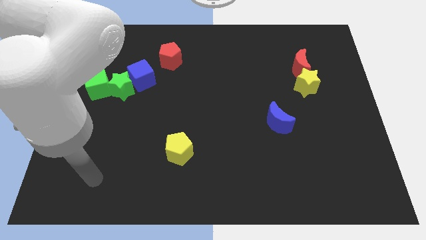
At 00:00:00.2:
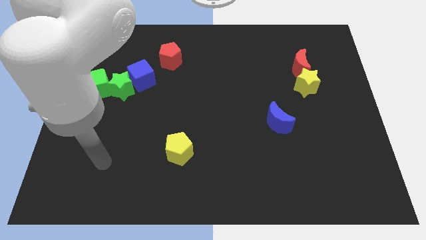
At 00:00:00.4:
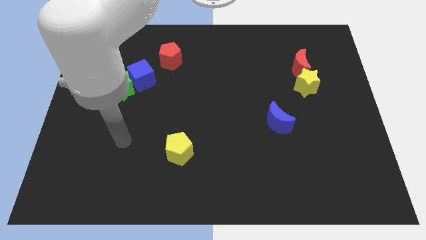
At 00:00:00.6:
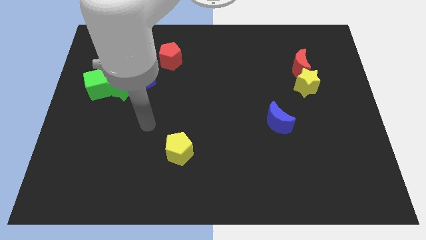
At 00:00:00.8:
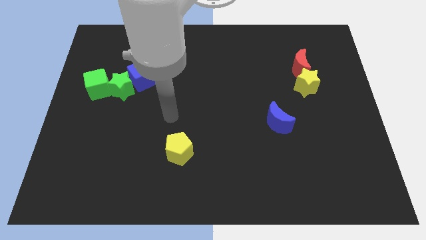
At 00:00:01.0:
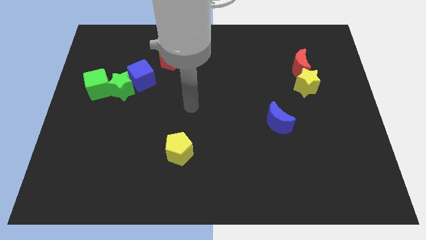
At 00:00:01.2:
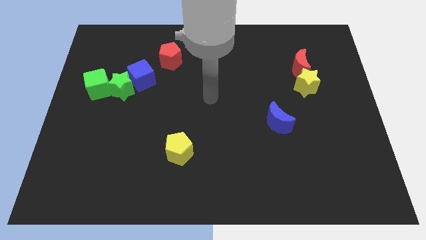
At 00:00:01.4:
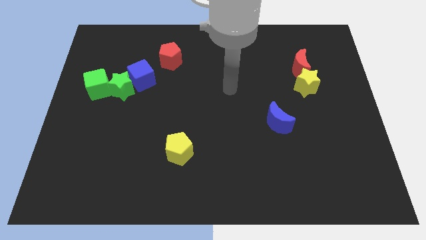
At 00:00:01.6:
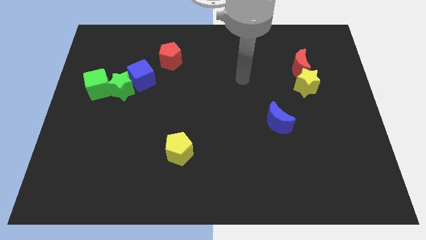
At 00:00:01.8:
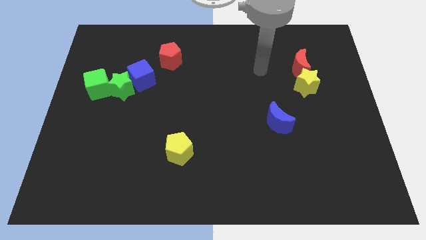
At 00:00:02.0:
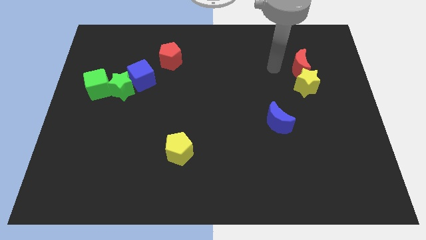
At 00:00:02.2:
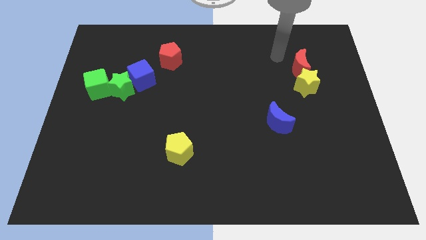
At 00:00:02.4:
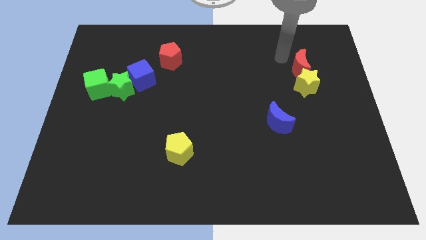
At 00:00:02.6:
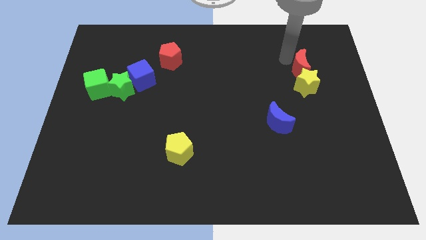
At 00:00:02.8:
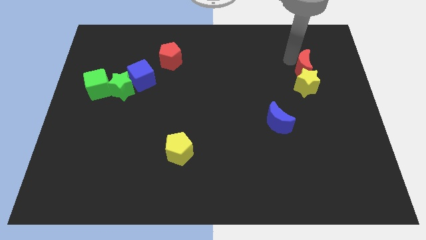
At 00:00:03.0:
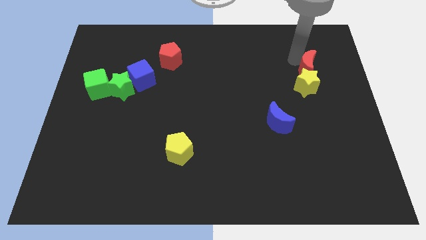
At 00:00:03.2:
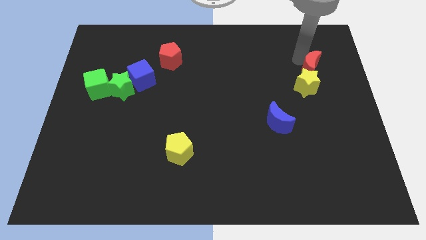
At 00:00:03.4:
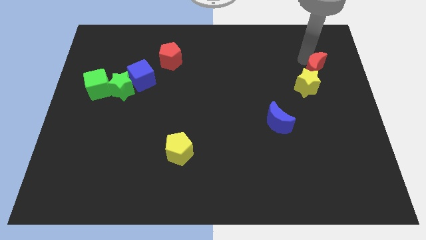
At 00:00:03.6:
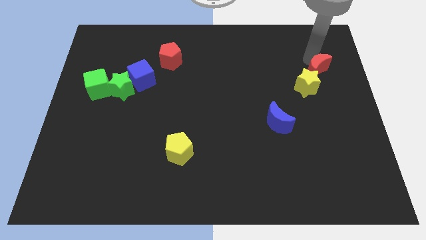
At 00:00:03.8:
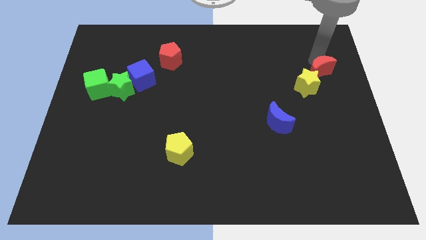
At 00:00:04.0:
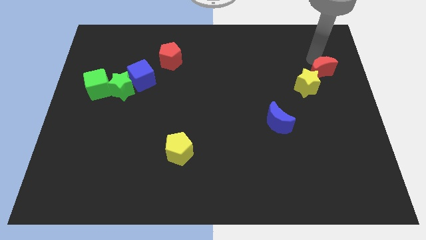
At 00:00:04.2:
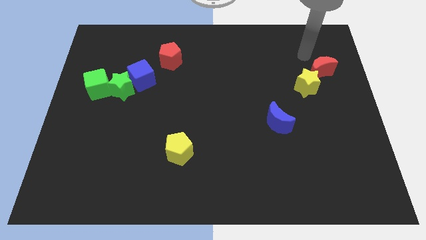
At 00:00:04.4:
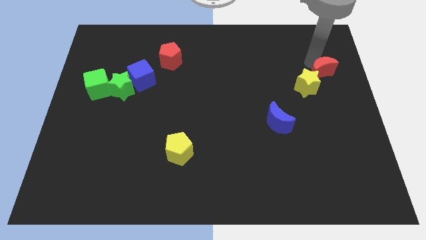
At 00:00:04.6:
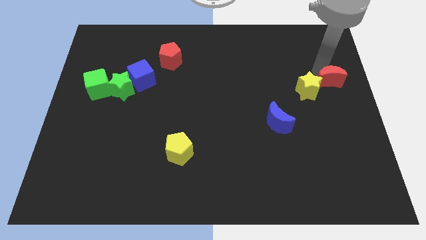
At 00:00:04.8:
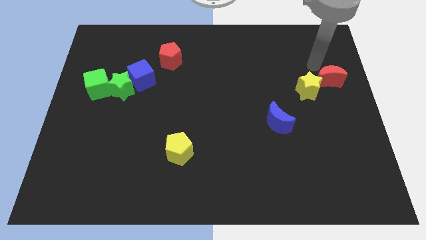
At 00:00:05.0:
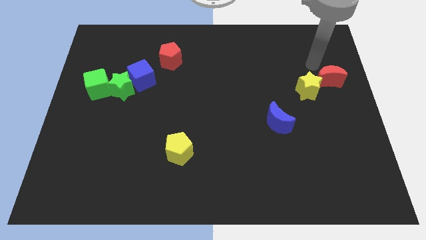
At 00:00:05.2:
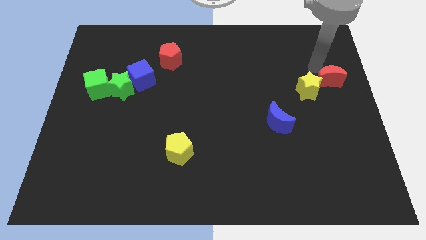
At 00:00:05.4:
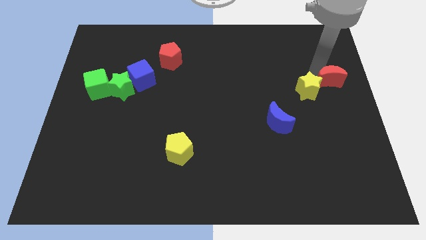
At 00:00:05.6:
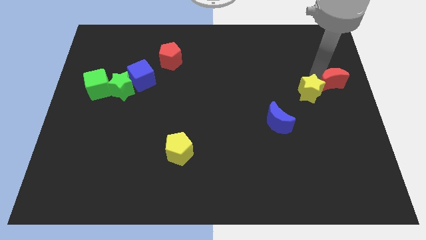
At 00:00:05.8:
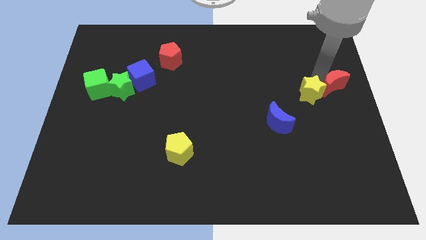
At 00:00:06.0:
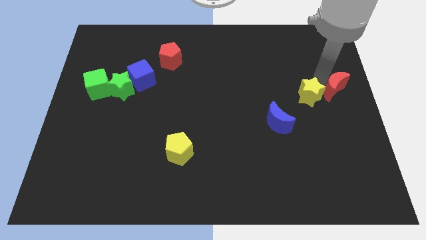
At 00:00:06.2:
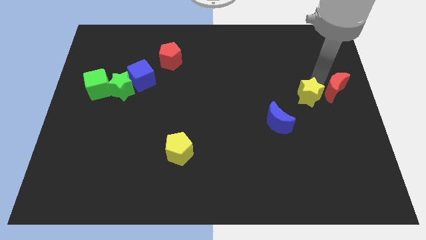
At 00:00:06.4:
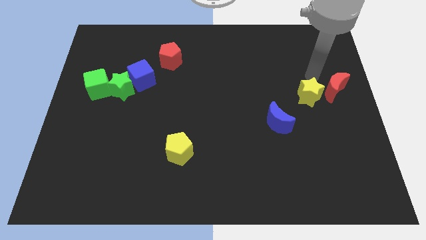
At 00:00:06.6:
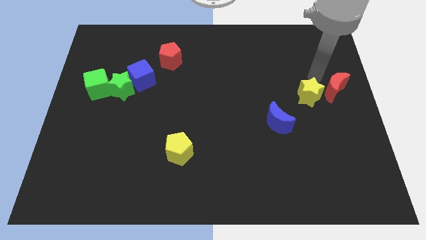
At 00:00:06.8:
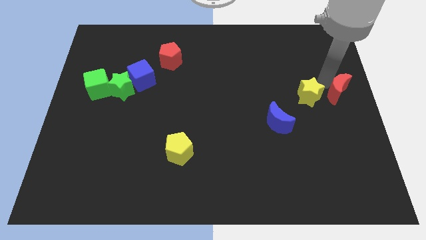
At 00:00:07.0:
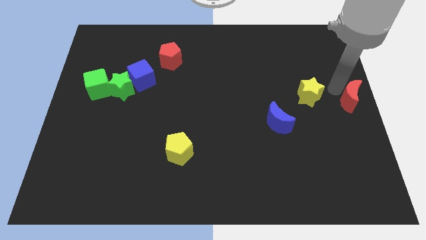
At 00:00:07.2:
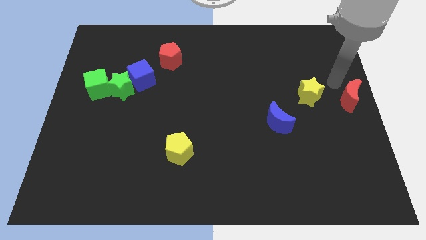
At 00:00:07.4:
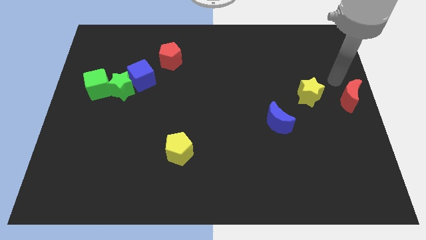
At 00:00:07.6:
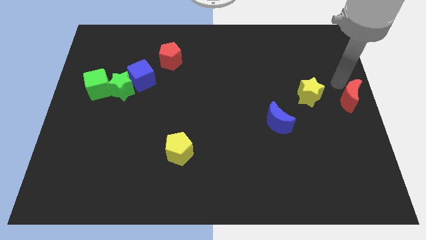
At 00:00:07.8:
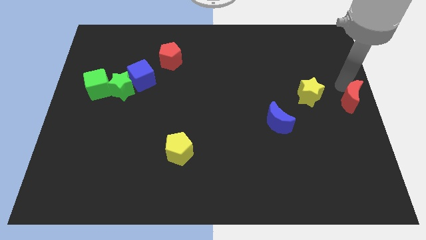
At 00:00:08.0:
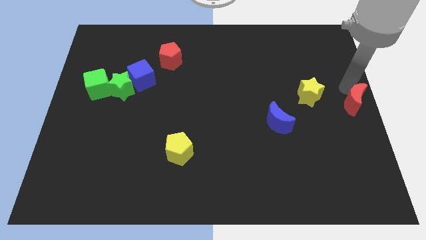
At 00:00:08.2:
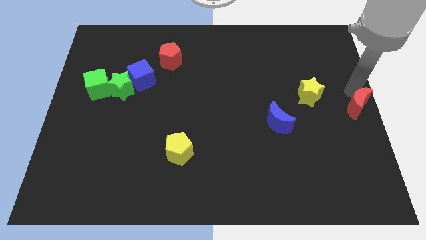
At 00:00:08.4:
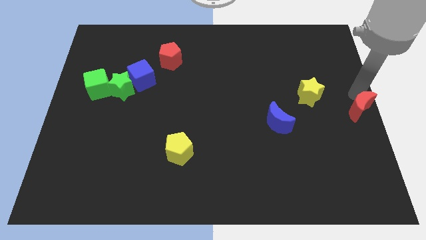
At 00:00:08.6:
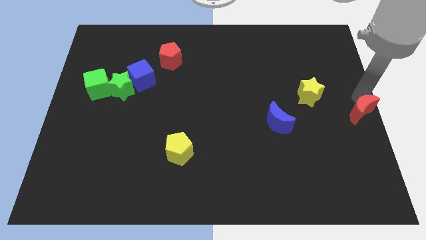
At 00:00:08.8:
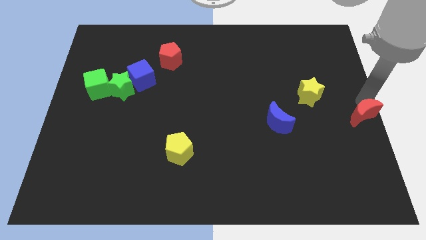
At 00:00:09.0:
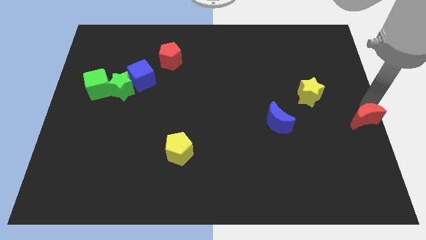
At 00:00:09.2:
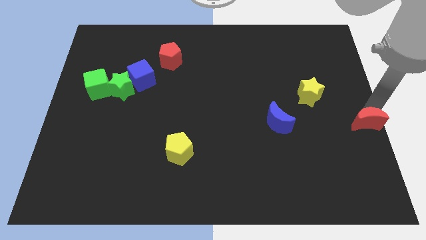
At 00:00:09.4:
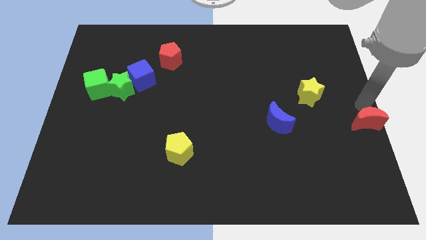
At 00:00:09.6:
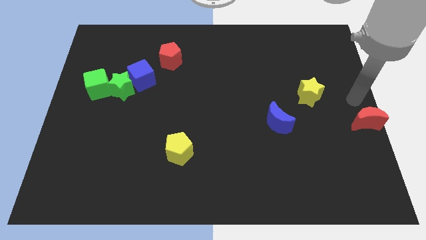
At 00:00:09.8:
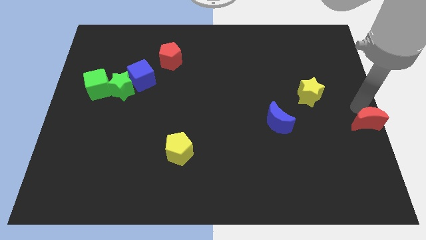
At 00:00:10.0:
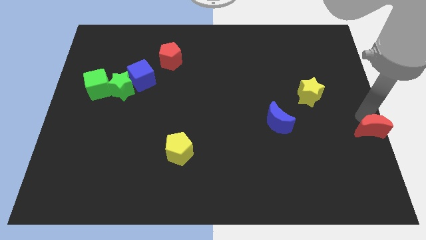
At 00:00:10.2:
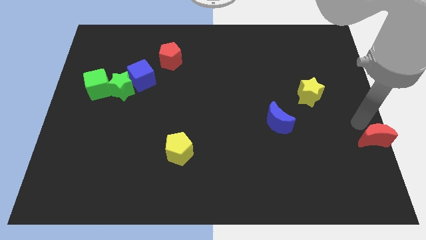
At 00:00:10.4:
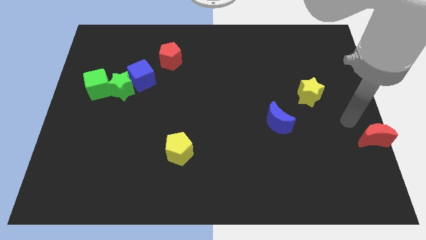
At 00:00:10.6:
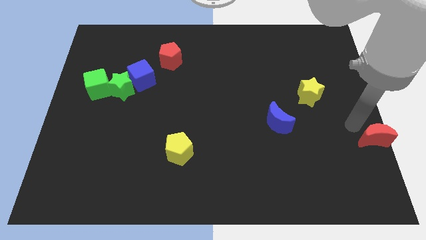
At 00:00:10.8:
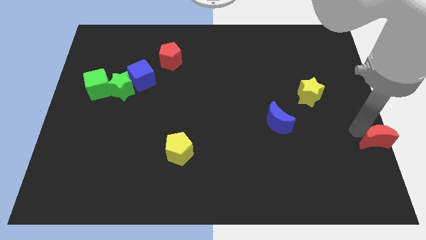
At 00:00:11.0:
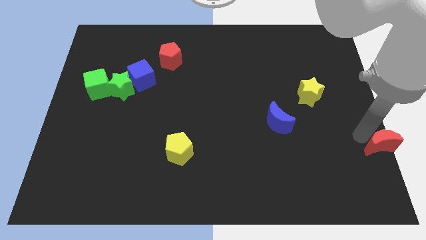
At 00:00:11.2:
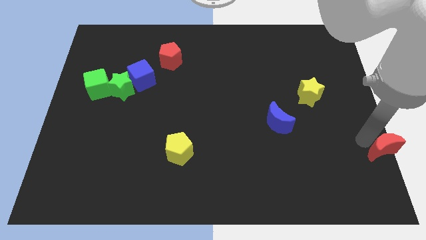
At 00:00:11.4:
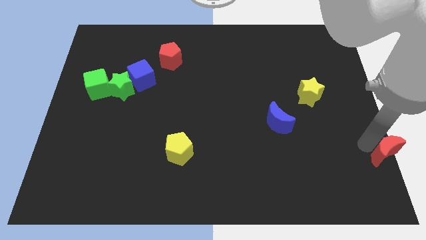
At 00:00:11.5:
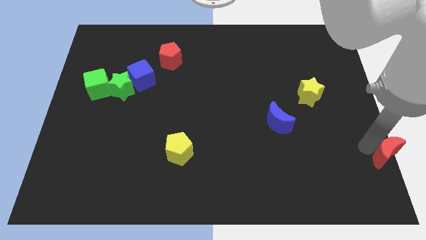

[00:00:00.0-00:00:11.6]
put the red moon to the bottom right corner

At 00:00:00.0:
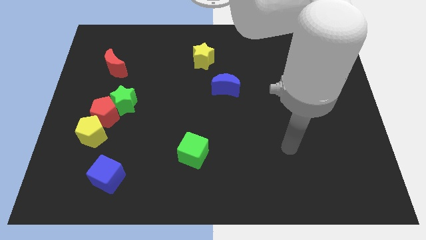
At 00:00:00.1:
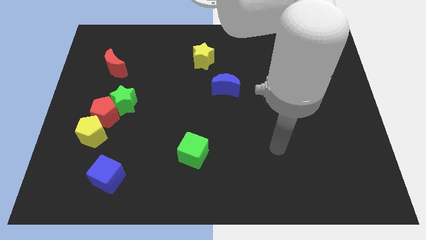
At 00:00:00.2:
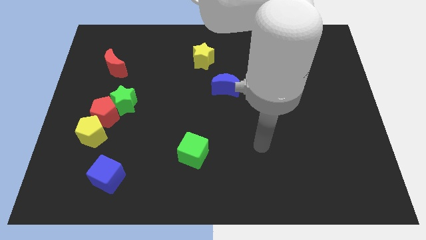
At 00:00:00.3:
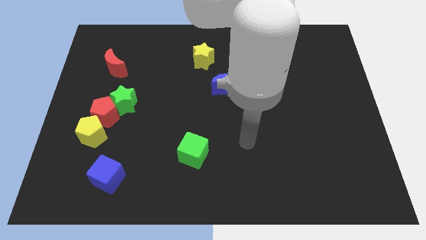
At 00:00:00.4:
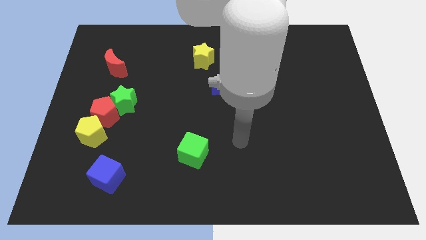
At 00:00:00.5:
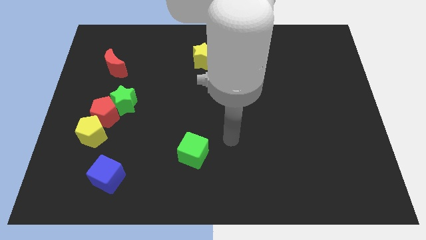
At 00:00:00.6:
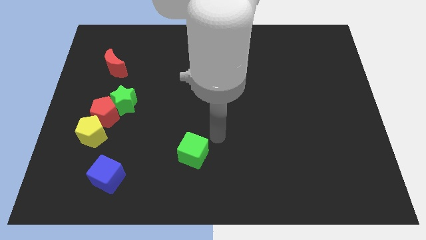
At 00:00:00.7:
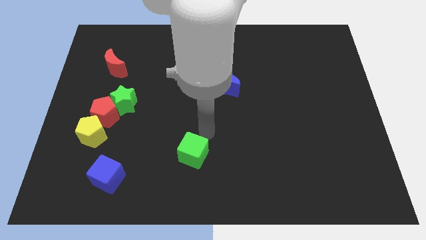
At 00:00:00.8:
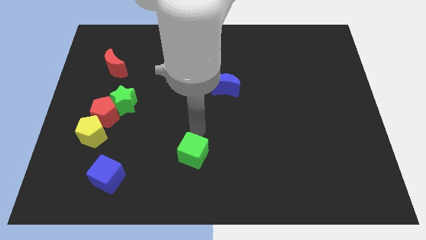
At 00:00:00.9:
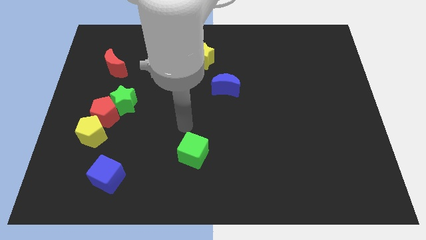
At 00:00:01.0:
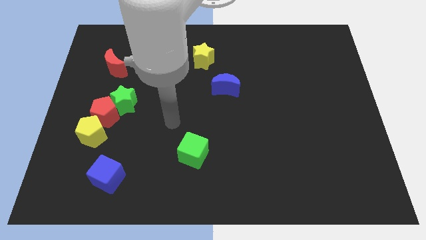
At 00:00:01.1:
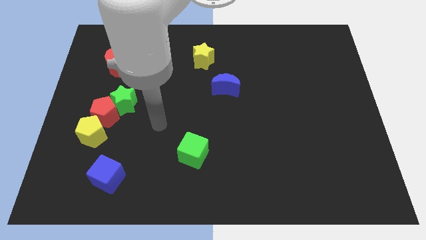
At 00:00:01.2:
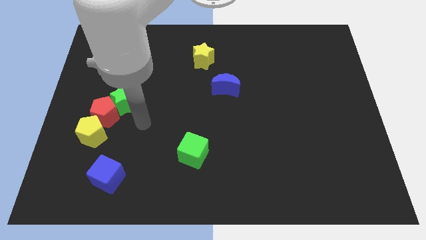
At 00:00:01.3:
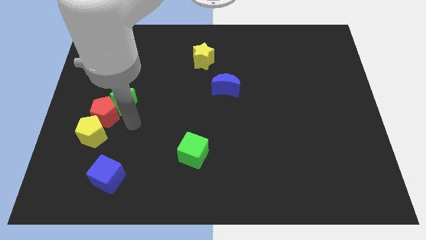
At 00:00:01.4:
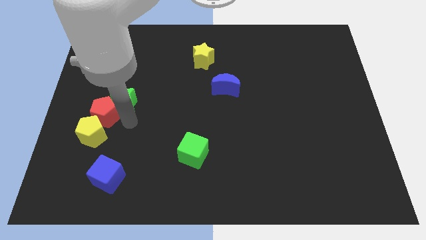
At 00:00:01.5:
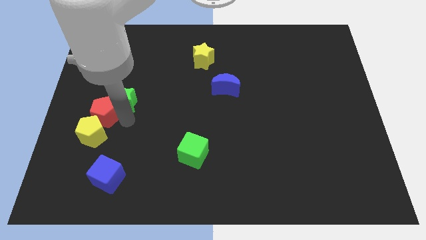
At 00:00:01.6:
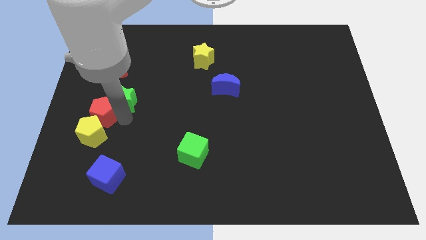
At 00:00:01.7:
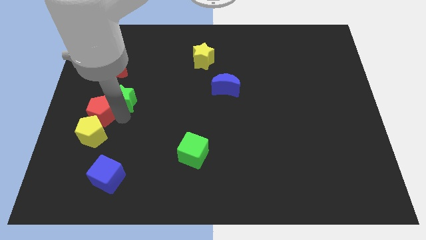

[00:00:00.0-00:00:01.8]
push the red pentagon to the left side
